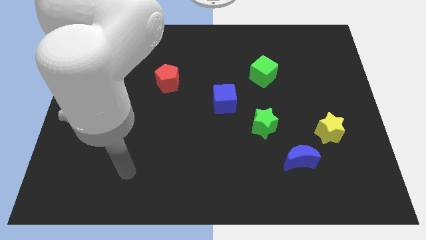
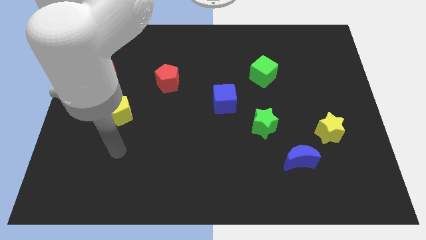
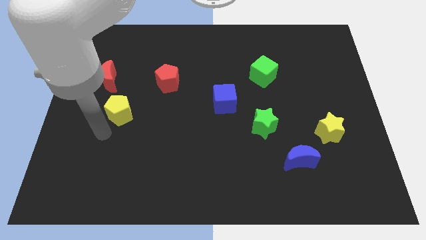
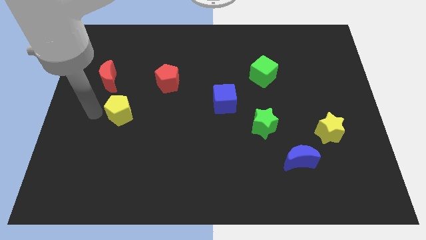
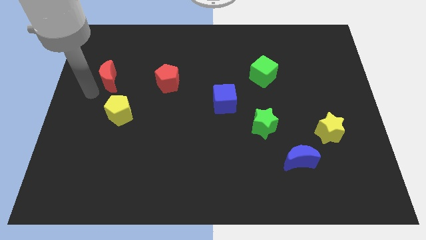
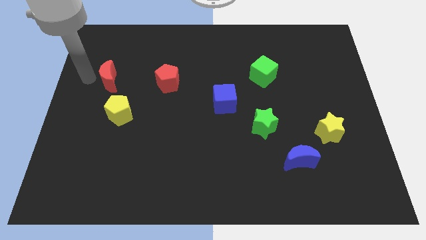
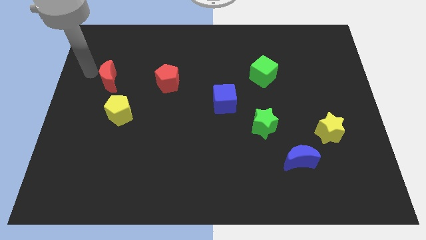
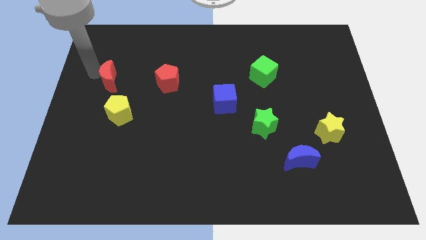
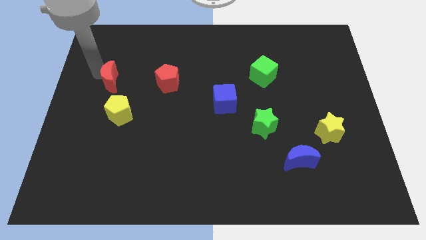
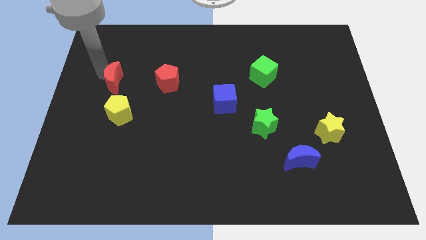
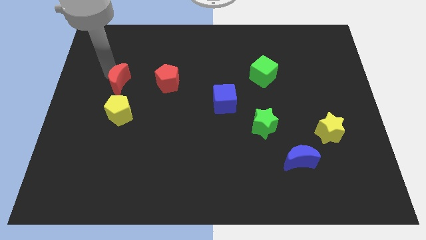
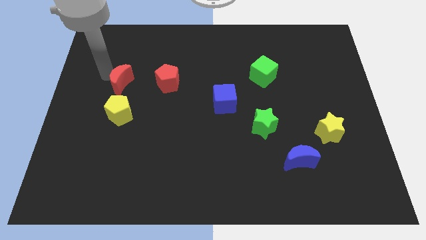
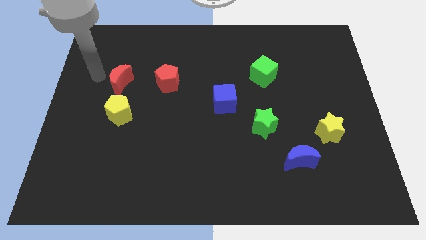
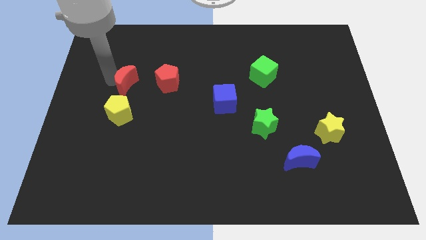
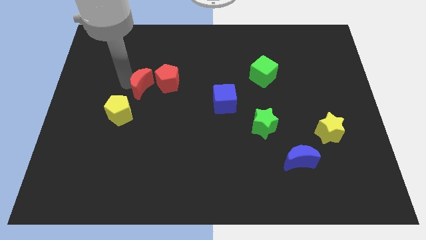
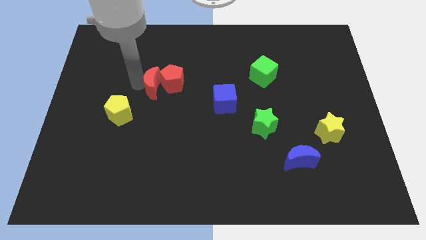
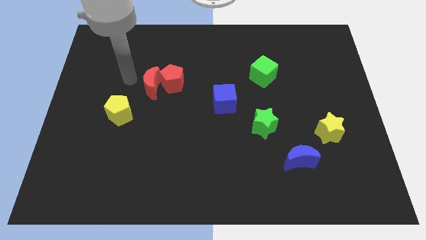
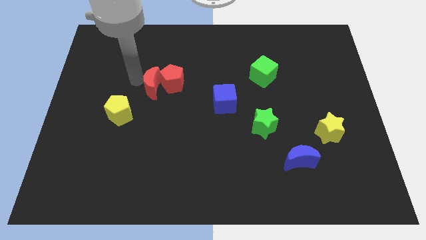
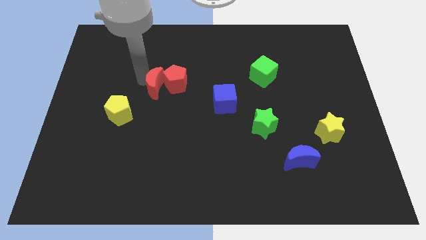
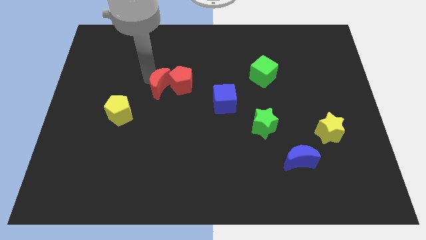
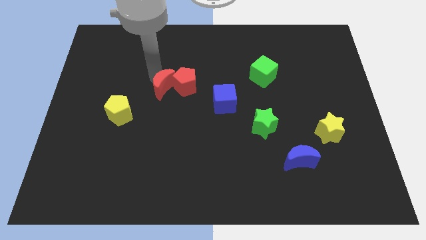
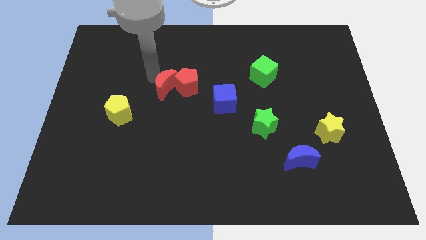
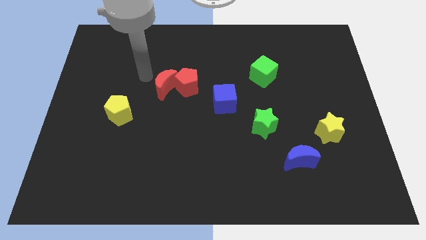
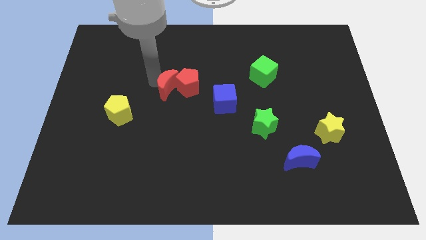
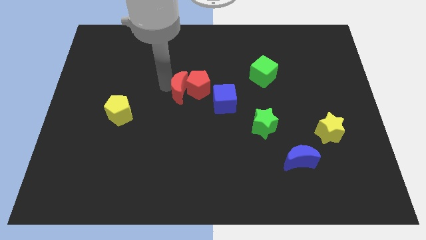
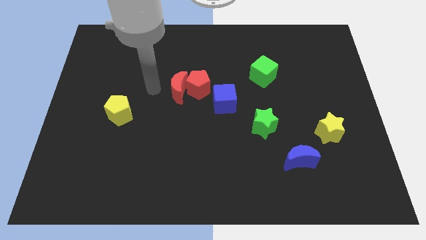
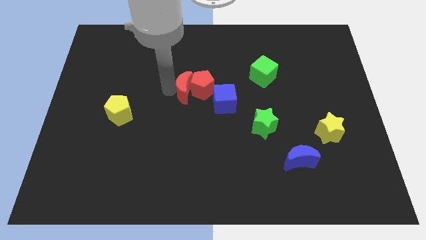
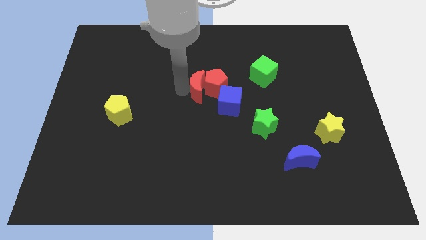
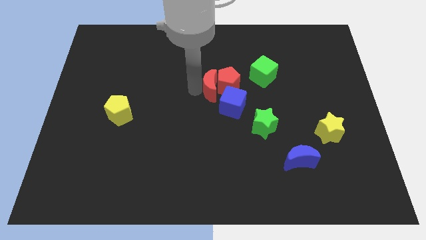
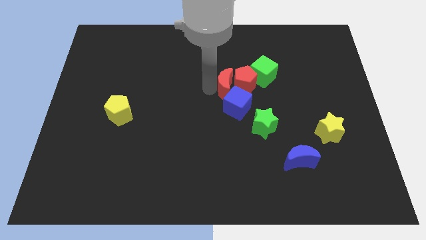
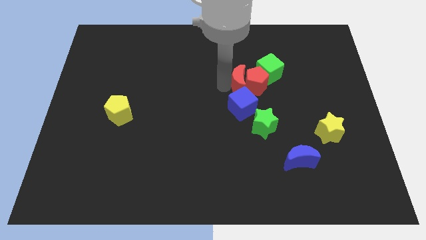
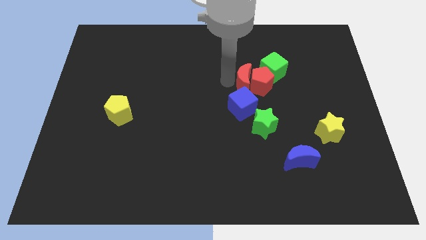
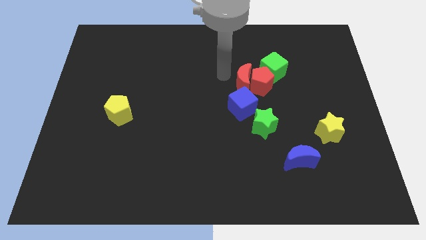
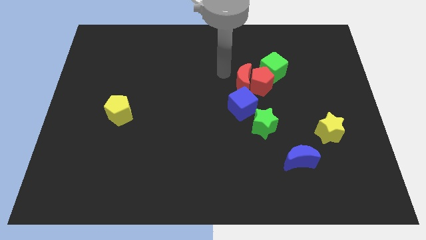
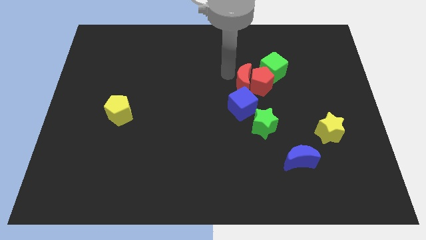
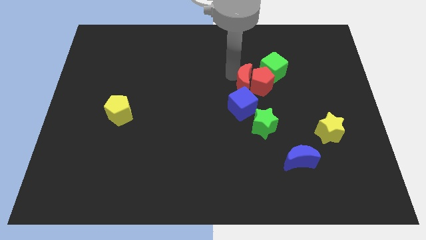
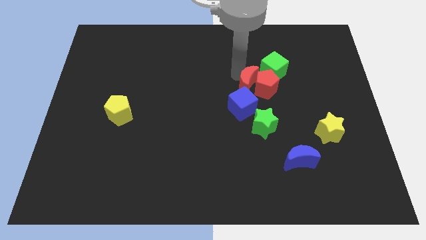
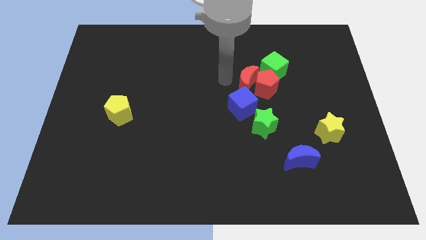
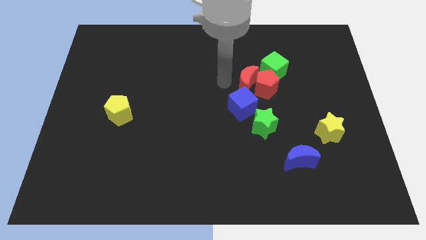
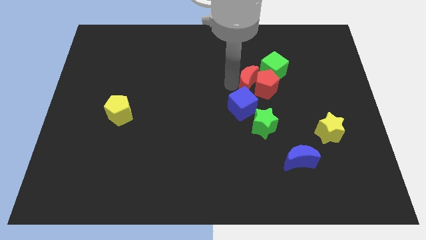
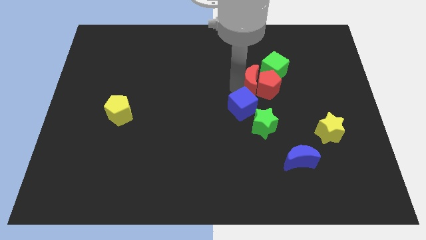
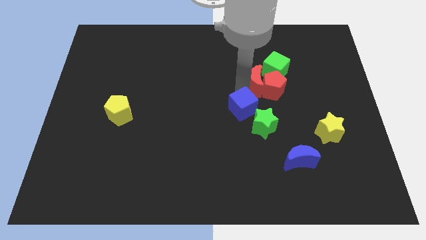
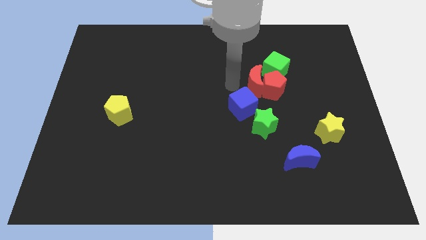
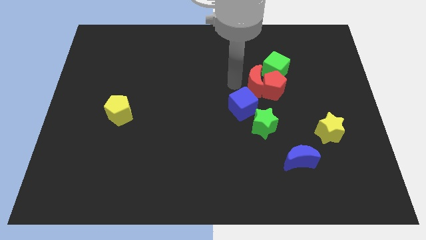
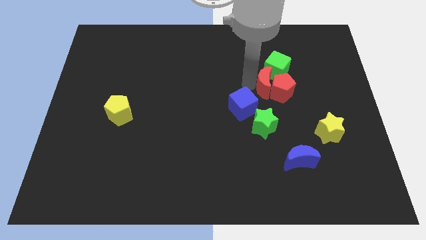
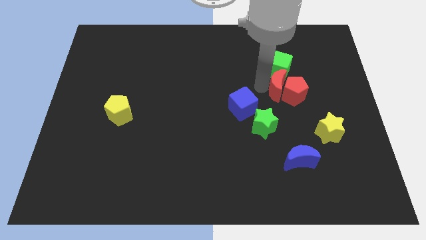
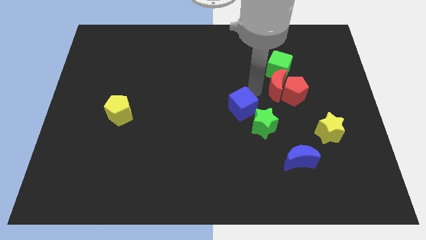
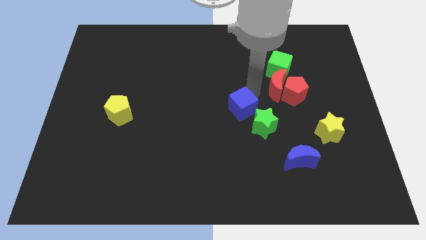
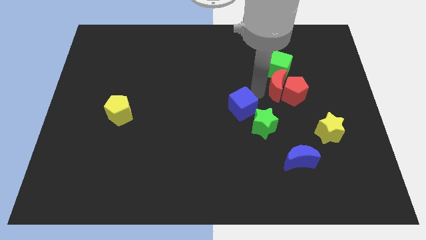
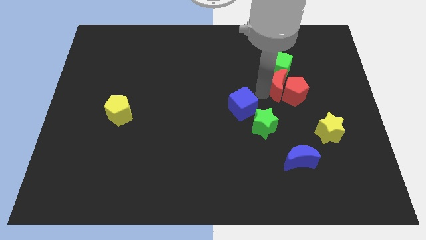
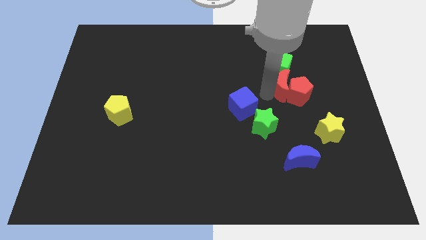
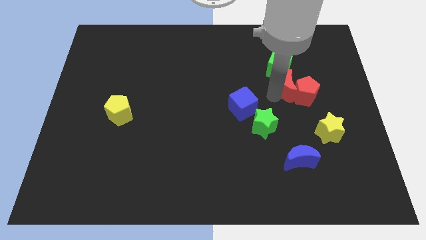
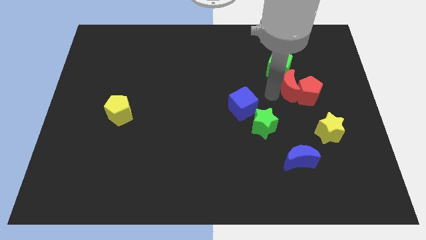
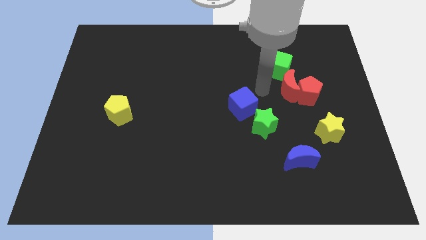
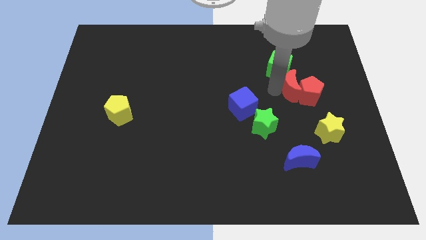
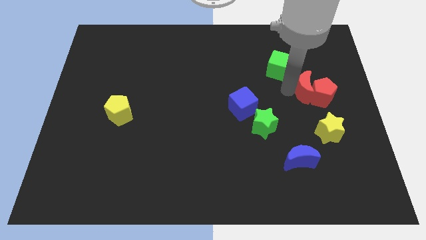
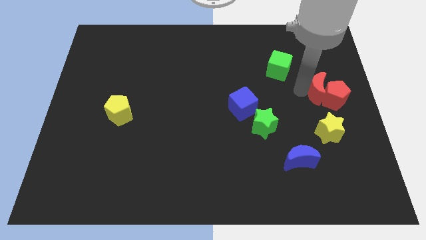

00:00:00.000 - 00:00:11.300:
move the red moon to the right side

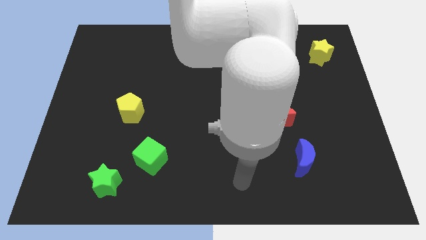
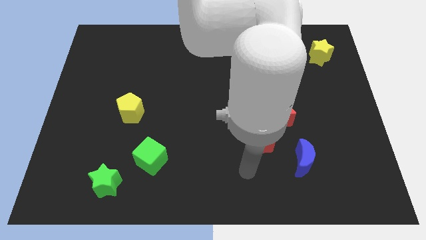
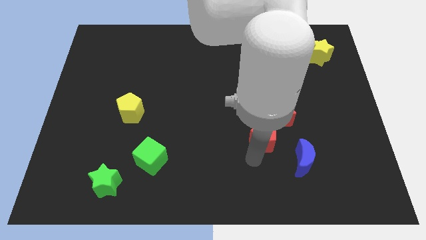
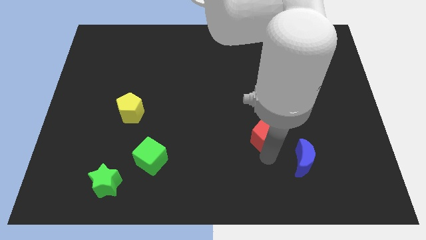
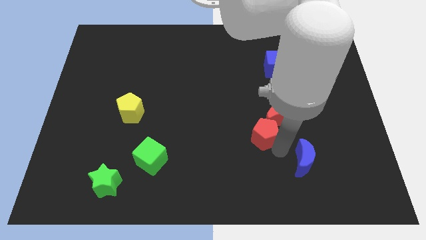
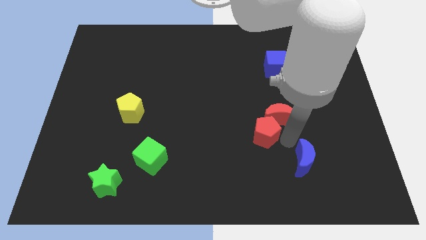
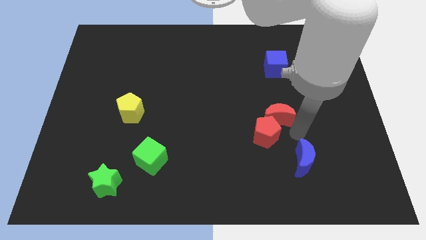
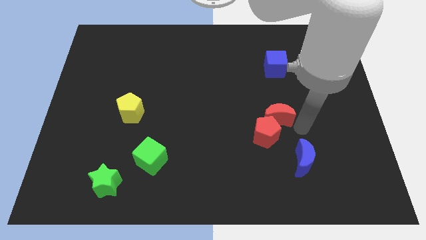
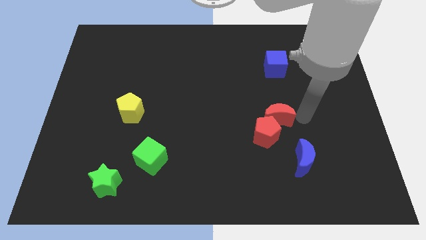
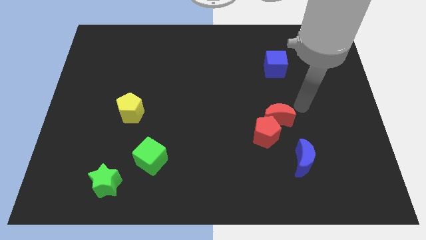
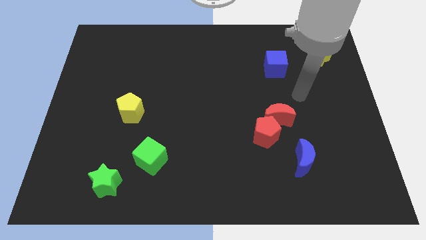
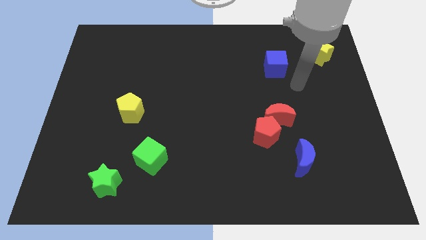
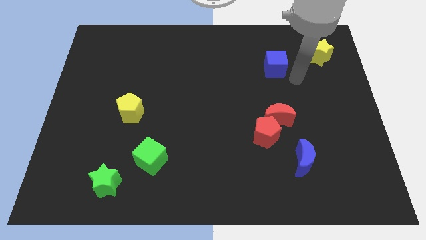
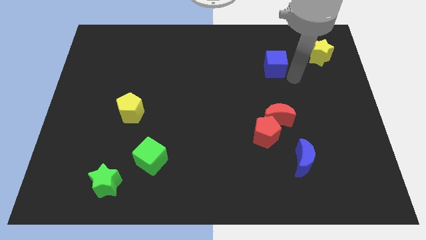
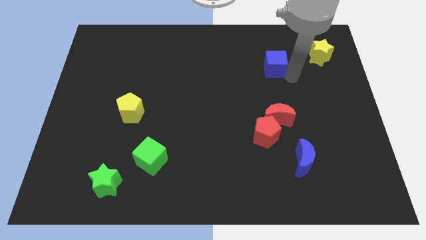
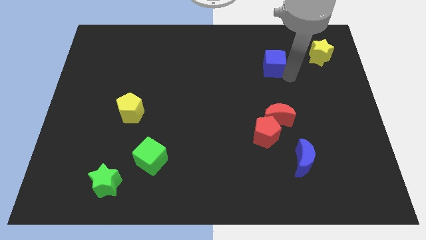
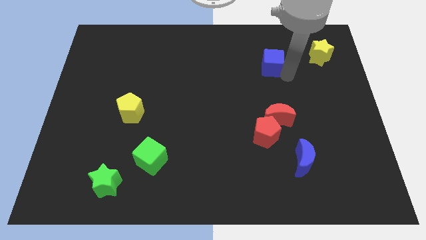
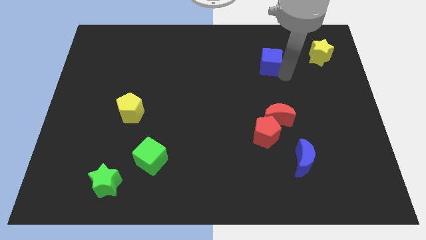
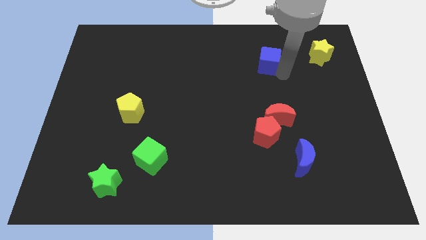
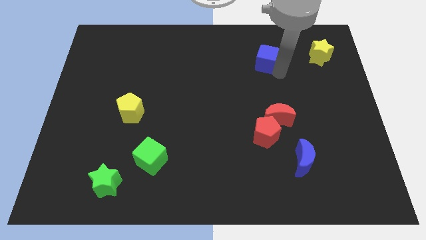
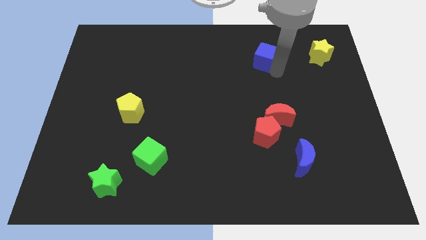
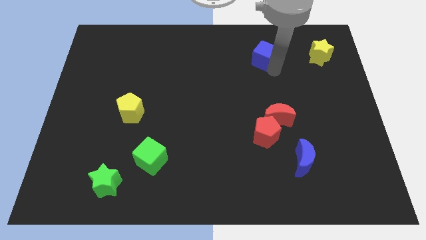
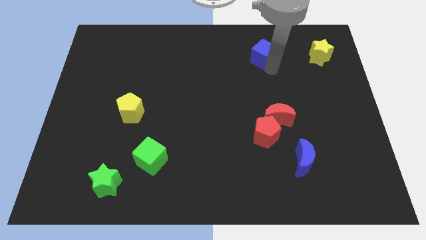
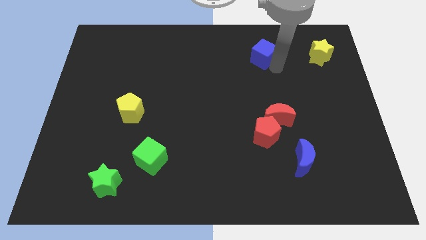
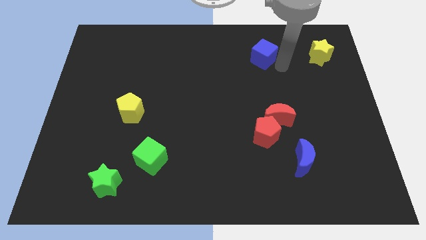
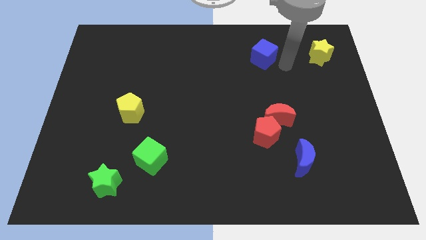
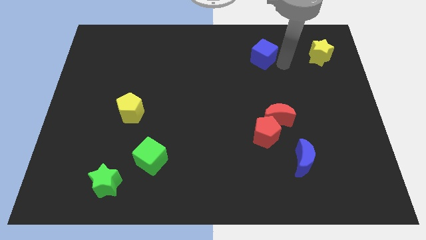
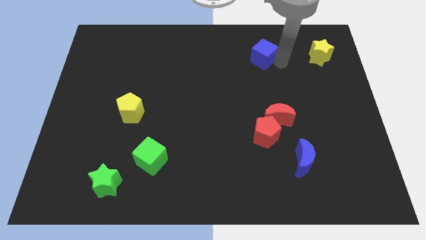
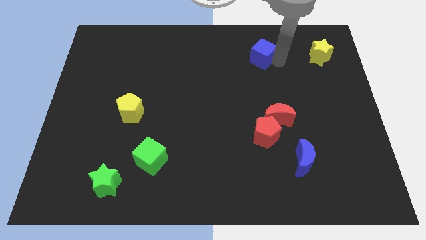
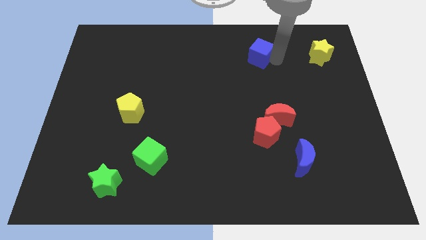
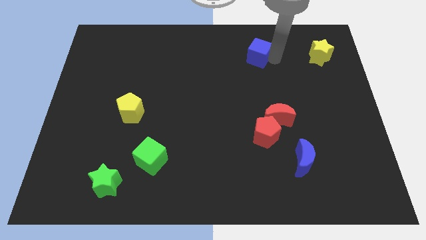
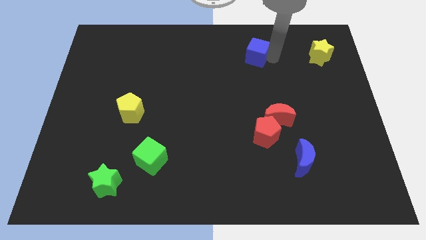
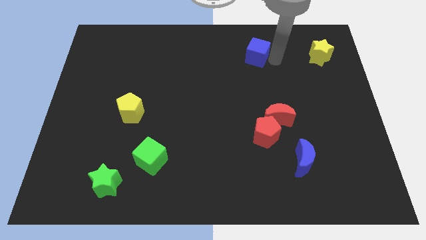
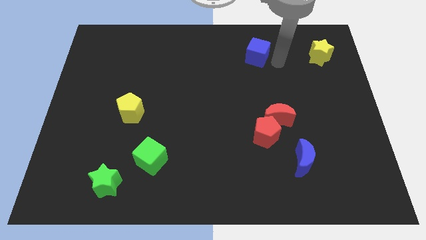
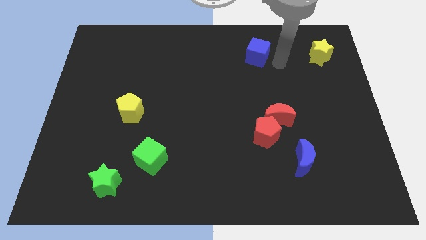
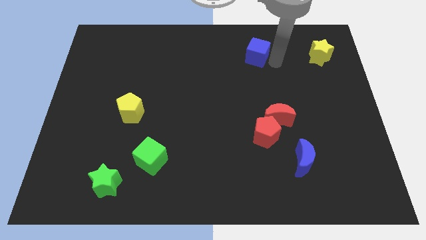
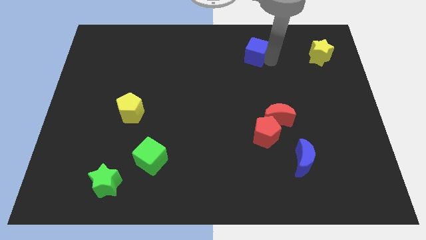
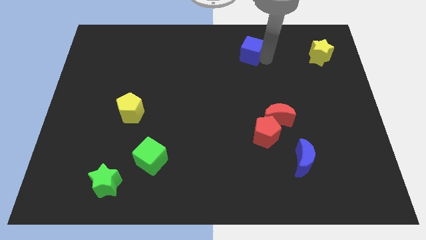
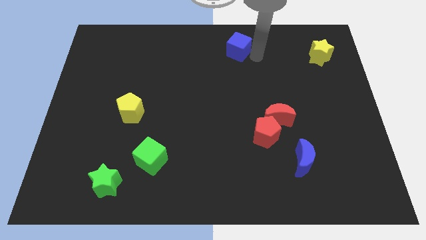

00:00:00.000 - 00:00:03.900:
move the blue cube to the top
